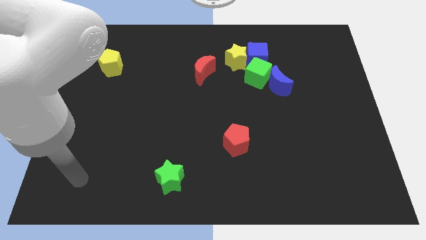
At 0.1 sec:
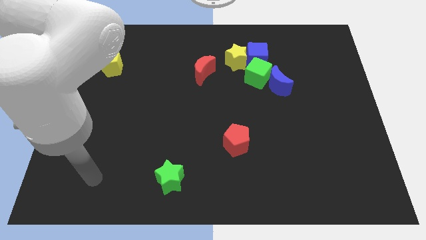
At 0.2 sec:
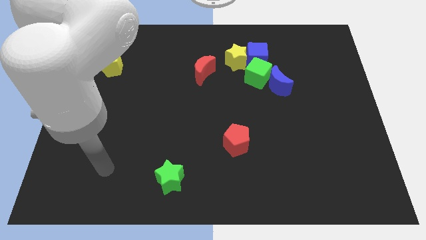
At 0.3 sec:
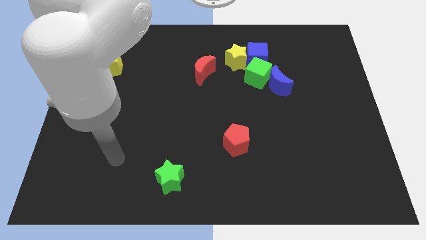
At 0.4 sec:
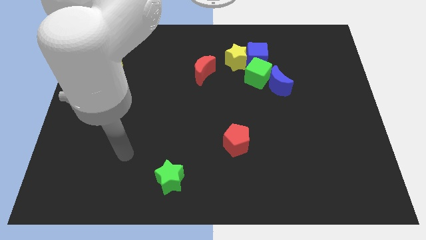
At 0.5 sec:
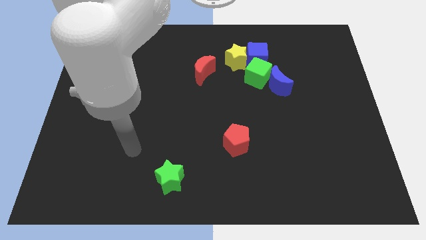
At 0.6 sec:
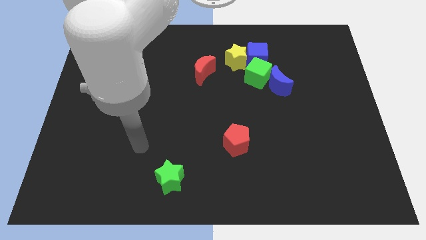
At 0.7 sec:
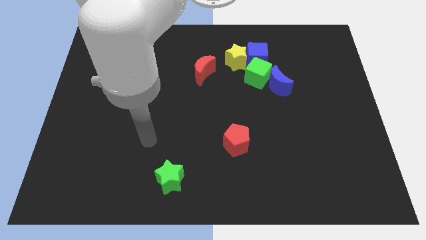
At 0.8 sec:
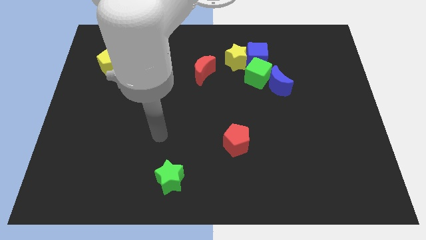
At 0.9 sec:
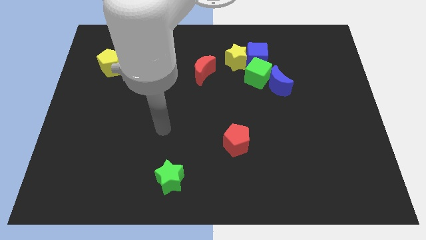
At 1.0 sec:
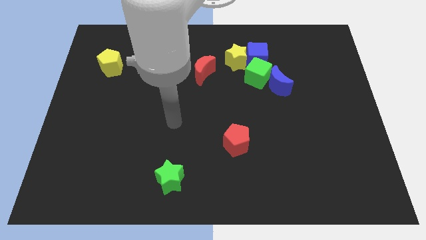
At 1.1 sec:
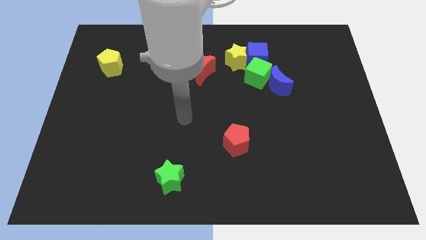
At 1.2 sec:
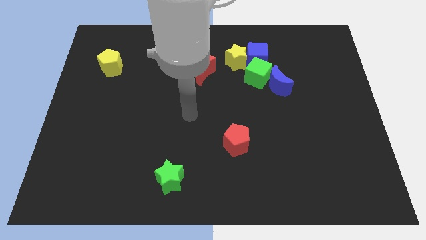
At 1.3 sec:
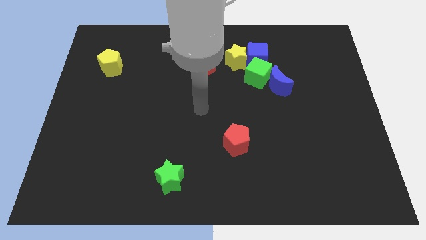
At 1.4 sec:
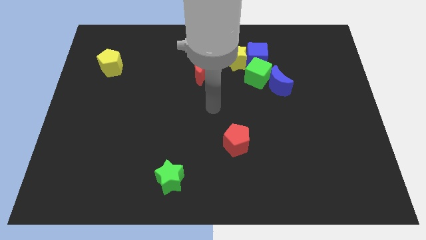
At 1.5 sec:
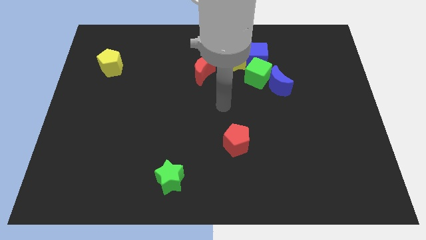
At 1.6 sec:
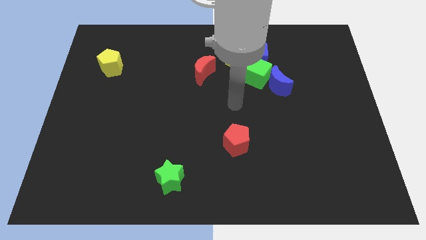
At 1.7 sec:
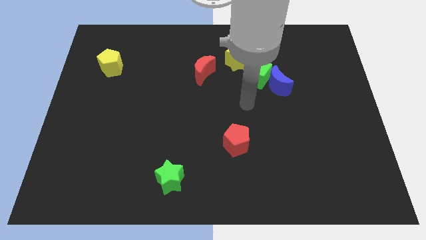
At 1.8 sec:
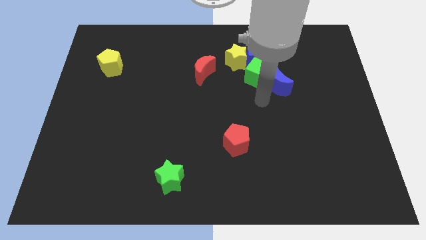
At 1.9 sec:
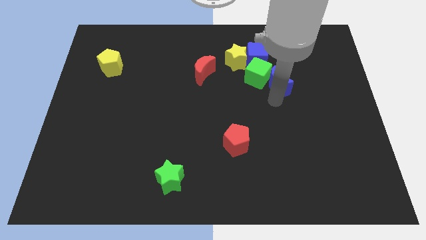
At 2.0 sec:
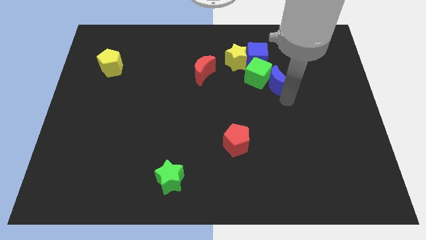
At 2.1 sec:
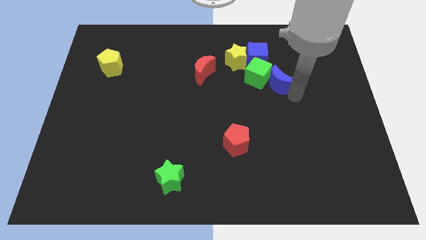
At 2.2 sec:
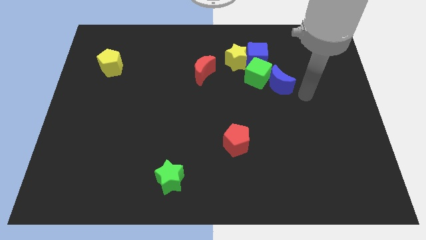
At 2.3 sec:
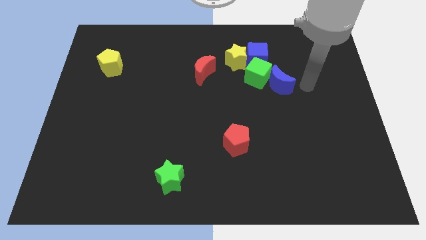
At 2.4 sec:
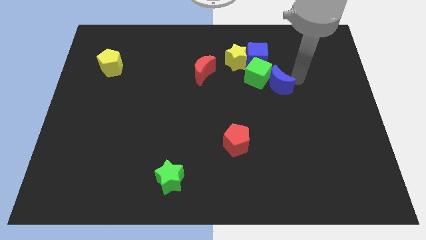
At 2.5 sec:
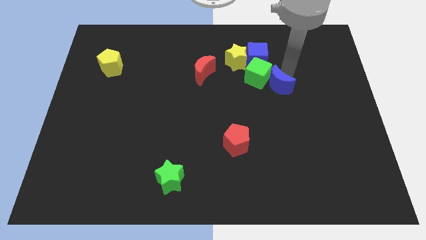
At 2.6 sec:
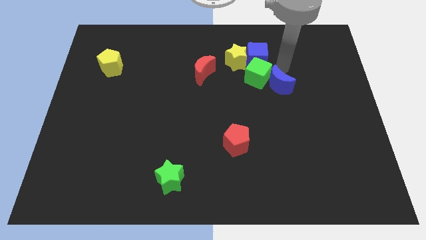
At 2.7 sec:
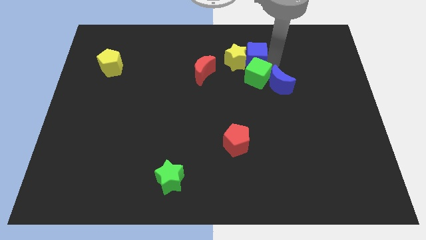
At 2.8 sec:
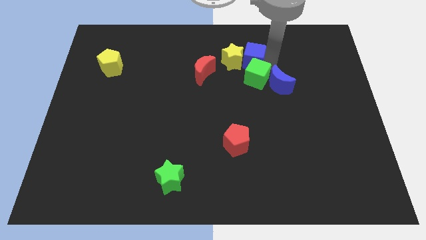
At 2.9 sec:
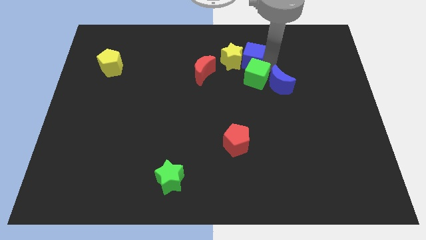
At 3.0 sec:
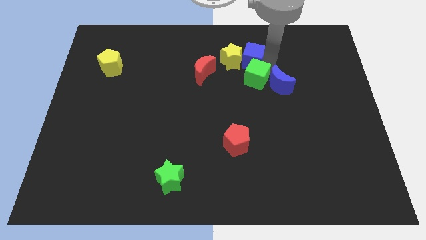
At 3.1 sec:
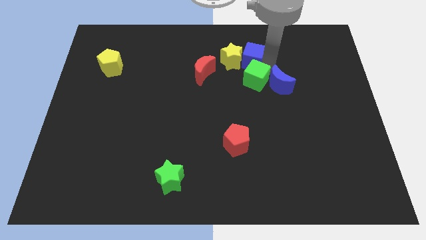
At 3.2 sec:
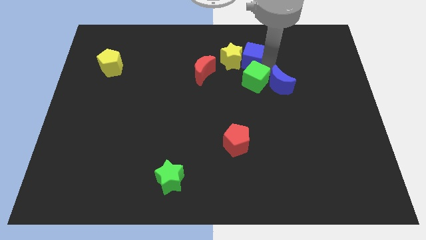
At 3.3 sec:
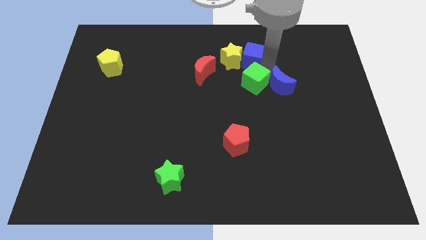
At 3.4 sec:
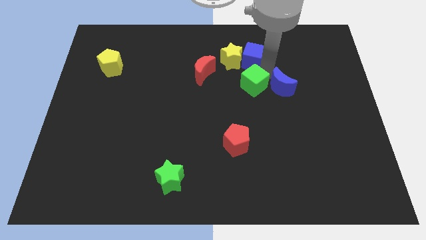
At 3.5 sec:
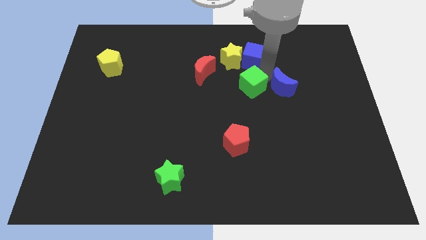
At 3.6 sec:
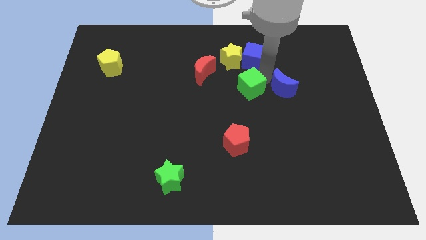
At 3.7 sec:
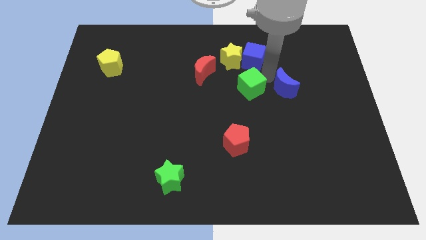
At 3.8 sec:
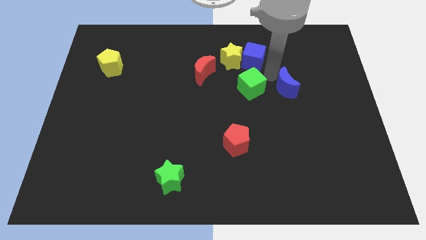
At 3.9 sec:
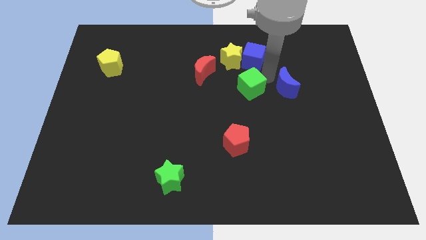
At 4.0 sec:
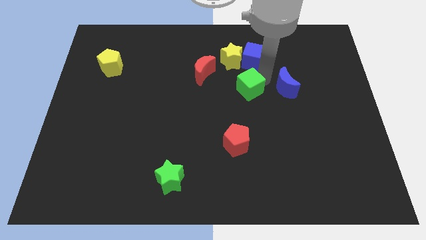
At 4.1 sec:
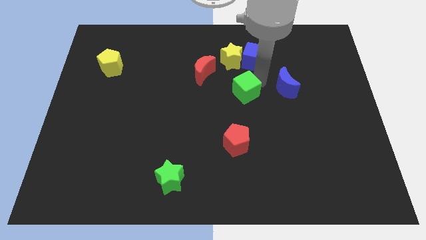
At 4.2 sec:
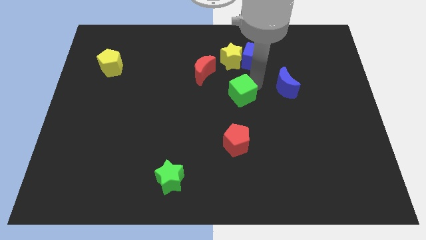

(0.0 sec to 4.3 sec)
move the green cube downwards and left diagonally somewhat

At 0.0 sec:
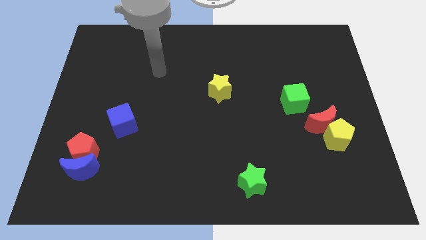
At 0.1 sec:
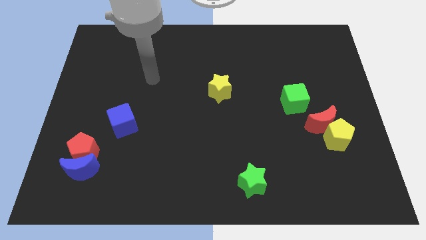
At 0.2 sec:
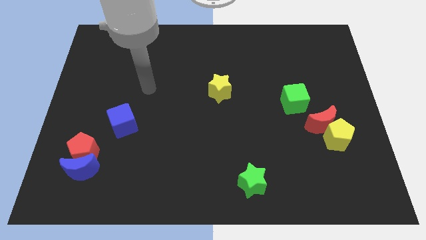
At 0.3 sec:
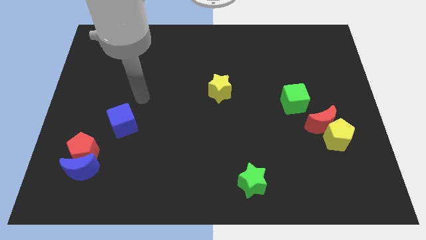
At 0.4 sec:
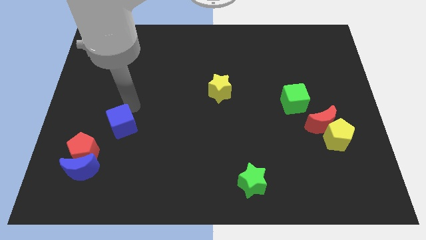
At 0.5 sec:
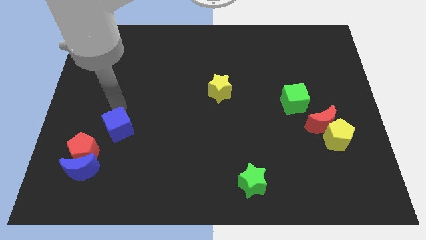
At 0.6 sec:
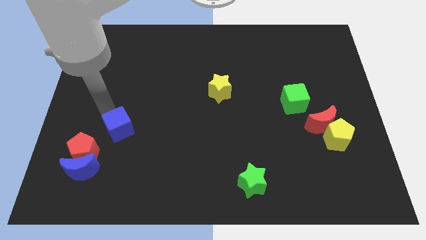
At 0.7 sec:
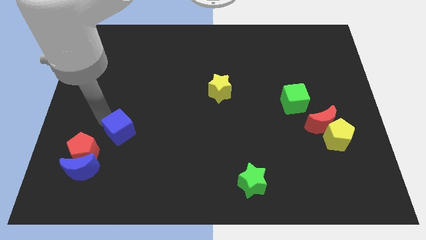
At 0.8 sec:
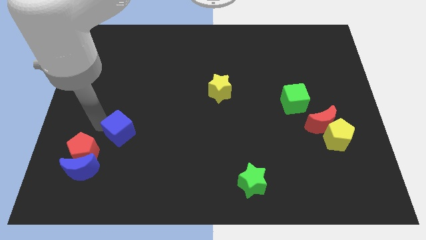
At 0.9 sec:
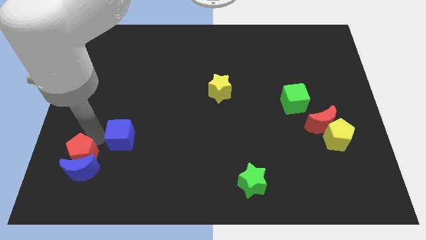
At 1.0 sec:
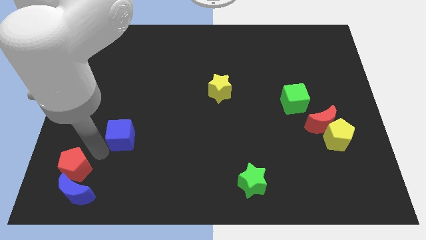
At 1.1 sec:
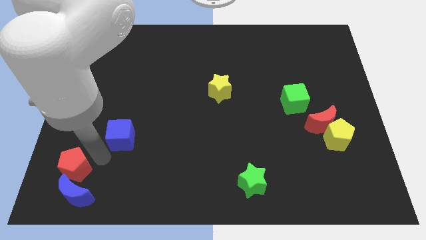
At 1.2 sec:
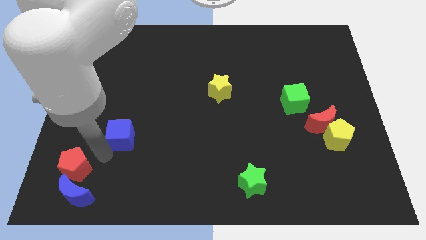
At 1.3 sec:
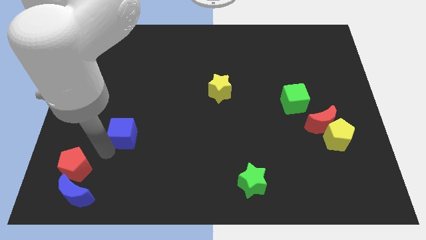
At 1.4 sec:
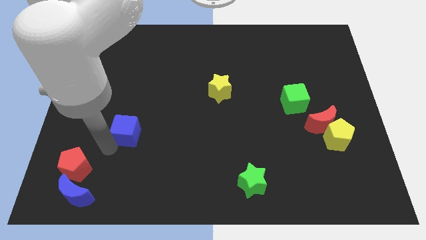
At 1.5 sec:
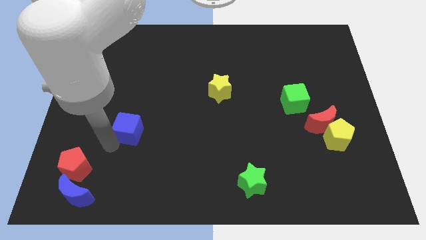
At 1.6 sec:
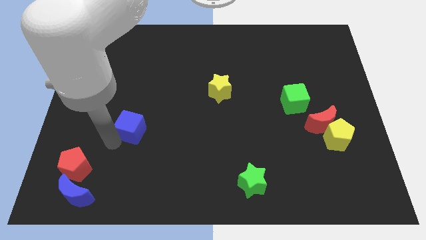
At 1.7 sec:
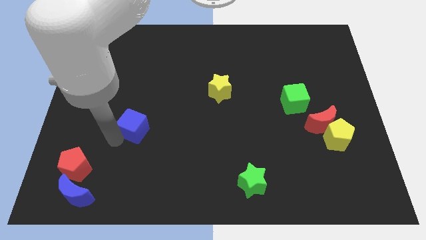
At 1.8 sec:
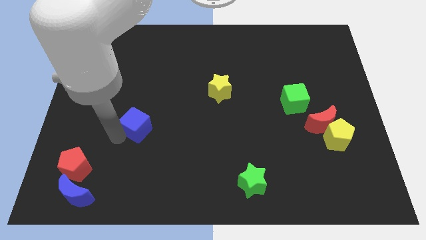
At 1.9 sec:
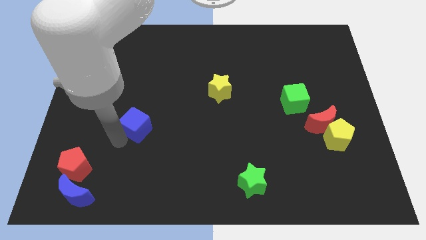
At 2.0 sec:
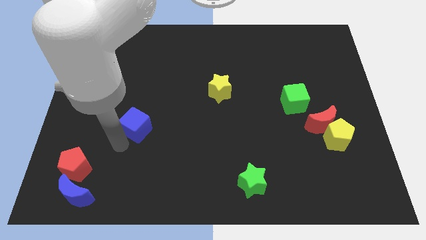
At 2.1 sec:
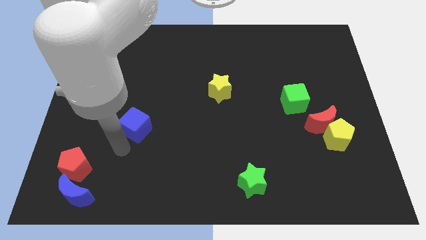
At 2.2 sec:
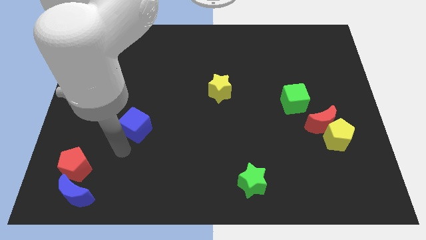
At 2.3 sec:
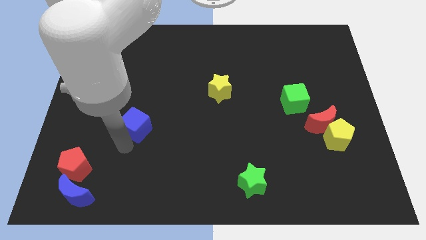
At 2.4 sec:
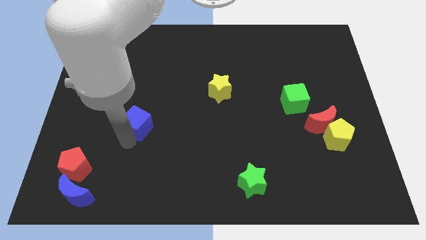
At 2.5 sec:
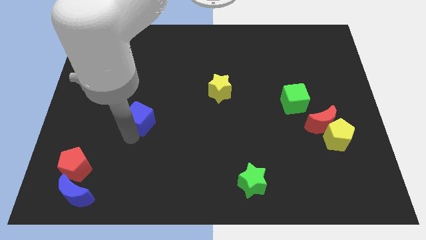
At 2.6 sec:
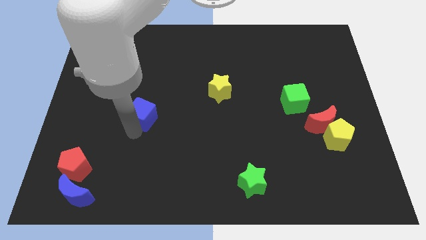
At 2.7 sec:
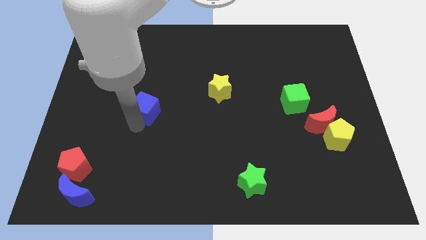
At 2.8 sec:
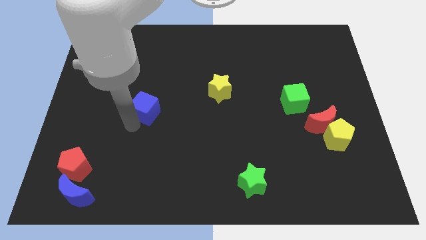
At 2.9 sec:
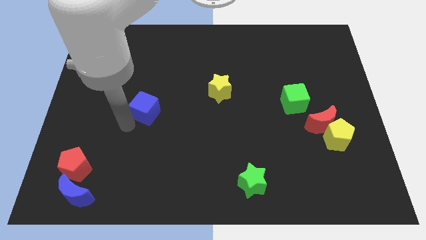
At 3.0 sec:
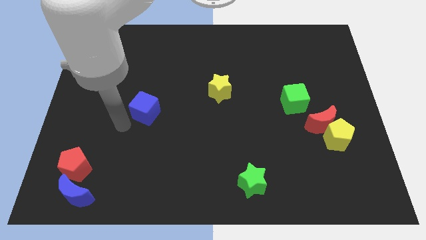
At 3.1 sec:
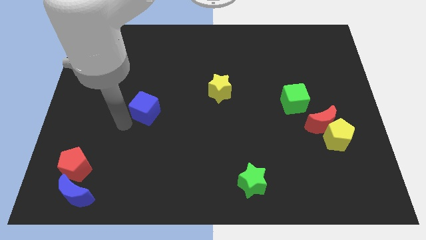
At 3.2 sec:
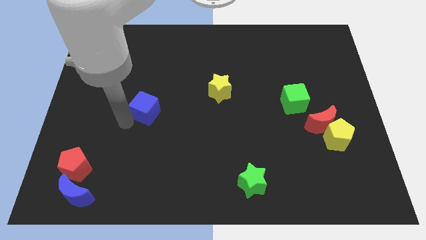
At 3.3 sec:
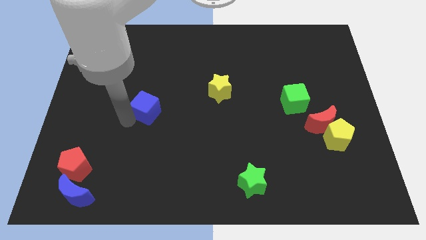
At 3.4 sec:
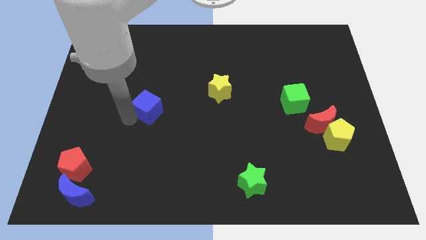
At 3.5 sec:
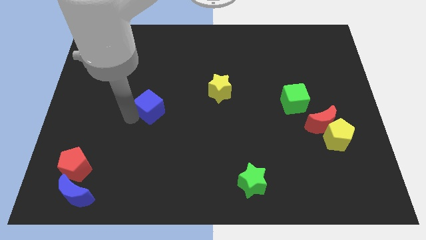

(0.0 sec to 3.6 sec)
move the blue cube upwards and then to the right somewhat

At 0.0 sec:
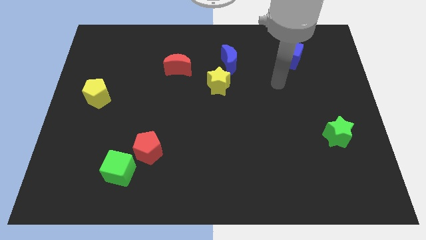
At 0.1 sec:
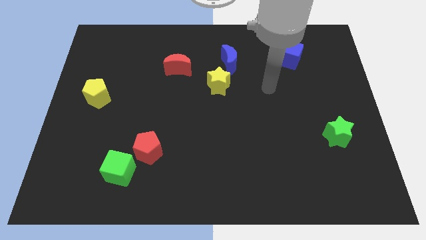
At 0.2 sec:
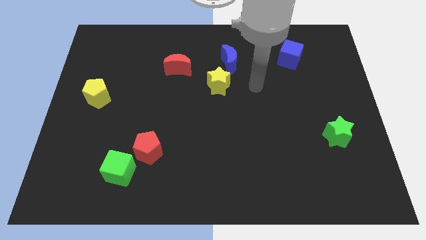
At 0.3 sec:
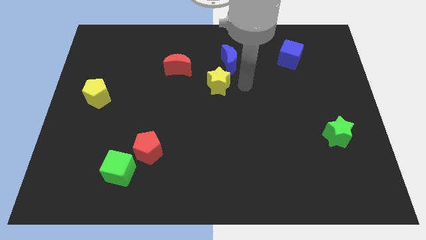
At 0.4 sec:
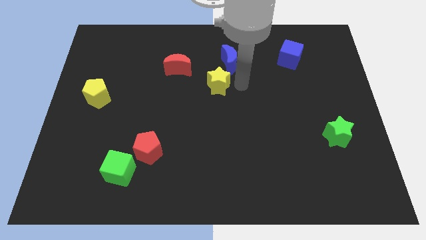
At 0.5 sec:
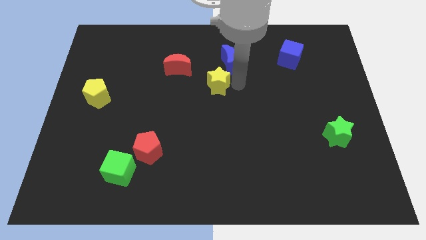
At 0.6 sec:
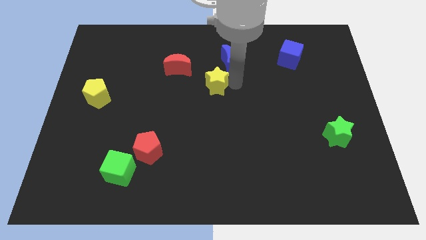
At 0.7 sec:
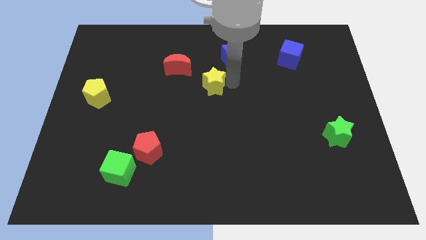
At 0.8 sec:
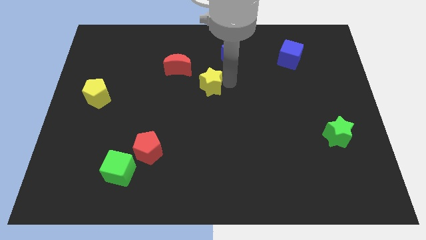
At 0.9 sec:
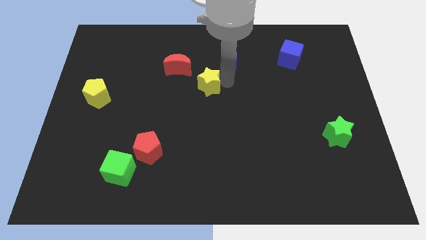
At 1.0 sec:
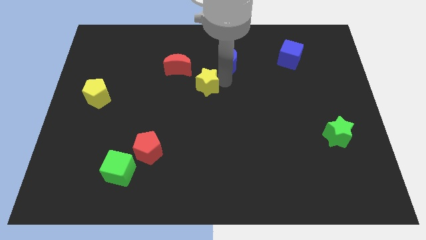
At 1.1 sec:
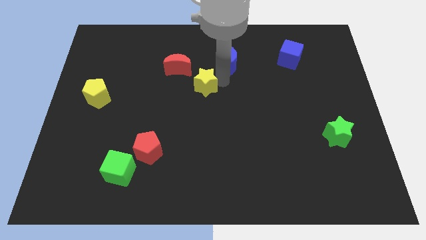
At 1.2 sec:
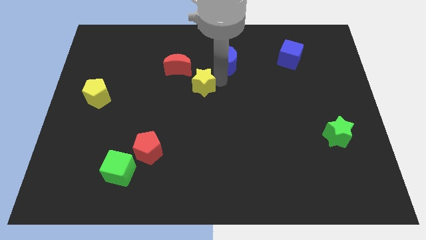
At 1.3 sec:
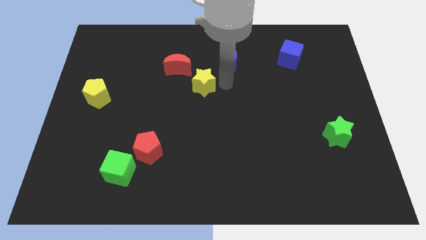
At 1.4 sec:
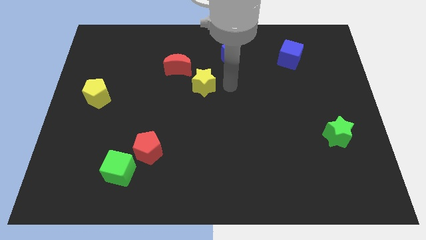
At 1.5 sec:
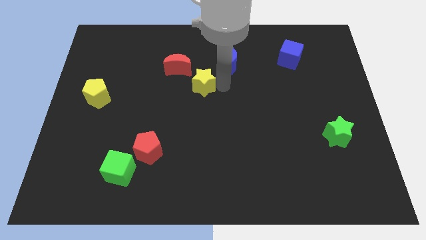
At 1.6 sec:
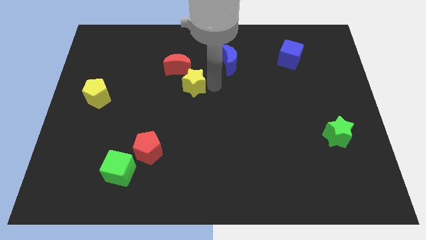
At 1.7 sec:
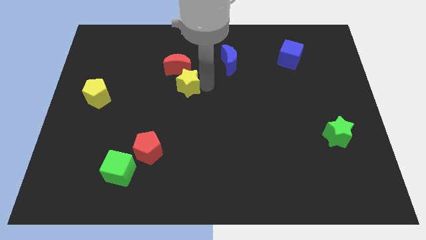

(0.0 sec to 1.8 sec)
push the yellow star left a little bit
